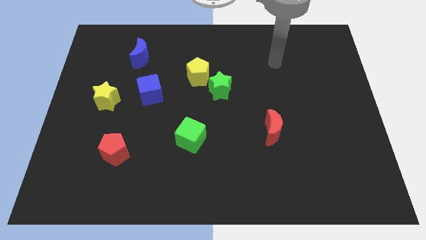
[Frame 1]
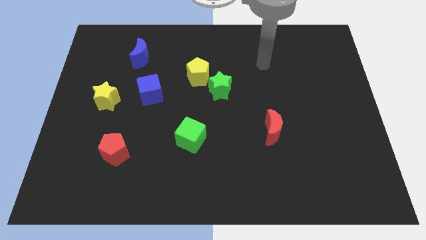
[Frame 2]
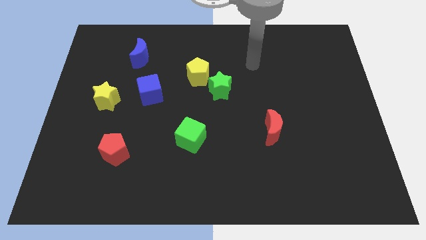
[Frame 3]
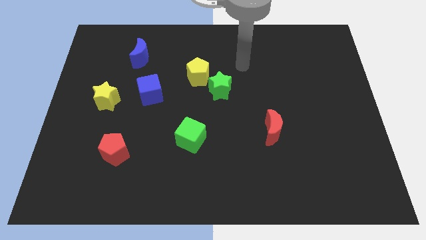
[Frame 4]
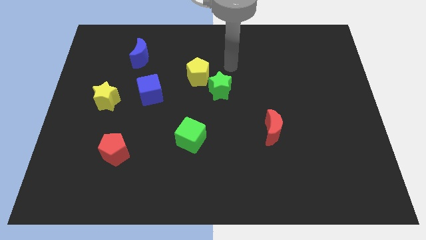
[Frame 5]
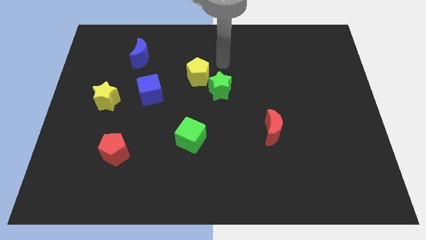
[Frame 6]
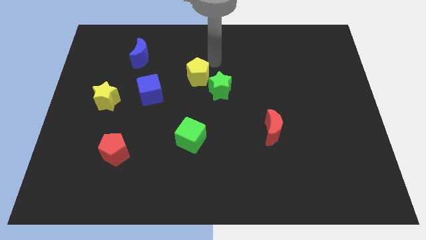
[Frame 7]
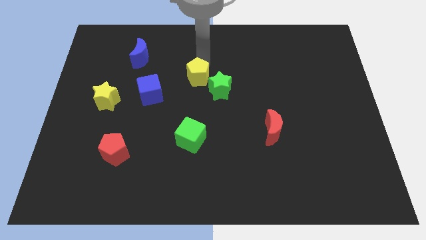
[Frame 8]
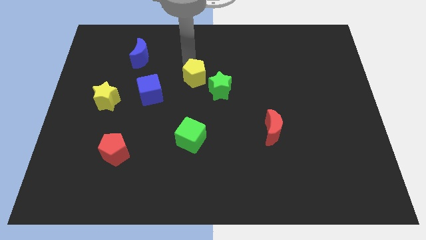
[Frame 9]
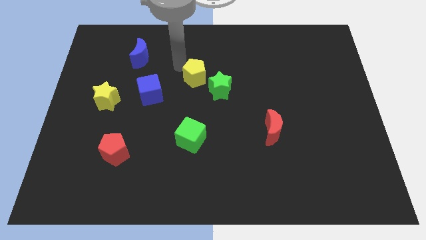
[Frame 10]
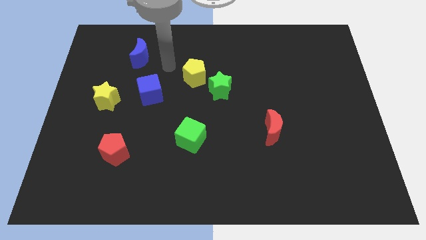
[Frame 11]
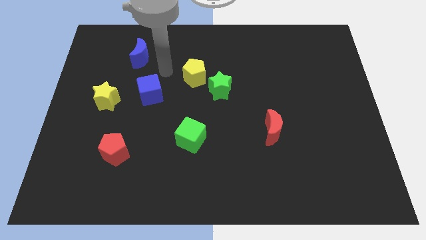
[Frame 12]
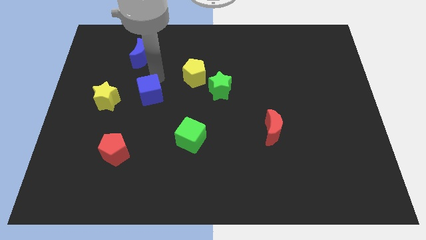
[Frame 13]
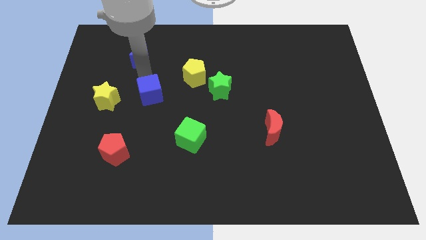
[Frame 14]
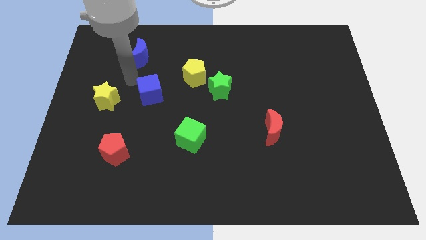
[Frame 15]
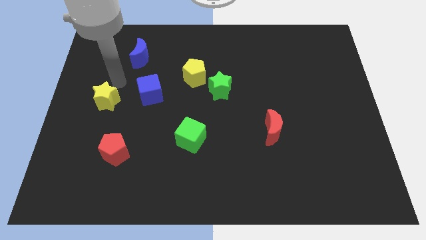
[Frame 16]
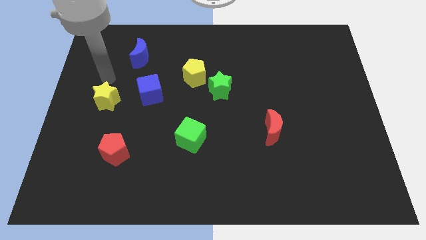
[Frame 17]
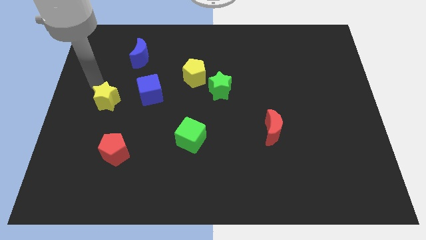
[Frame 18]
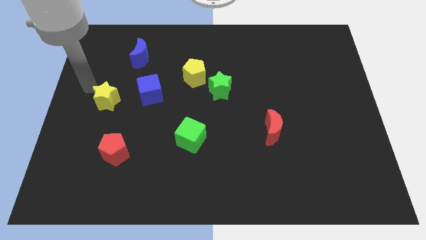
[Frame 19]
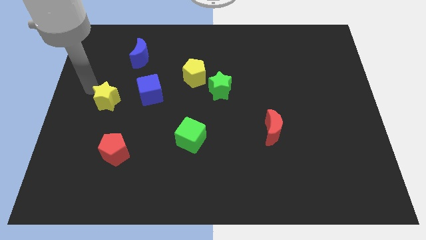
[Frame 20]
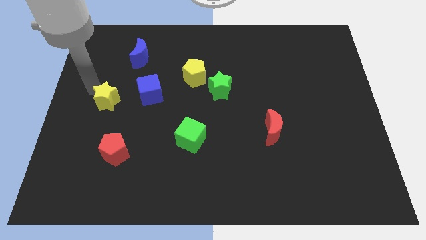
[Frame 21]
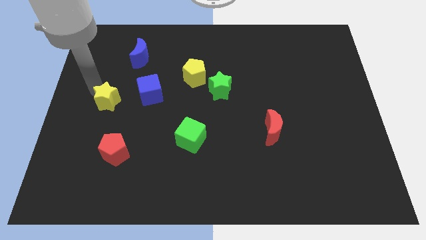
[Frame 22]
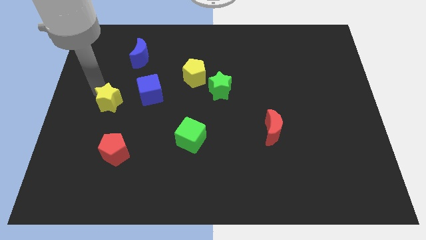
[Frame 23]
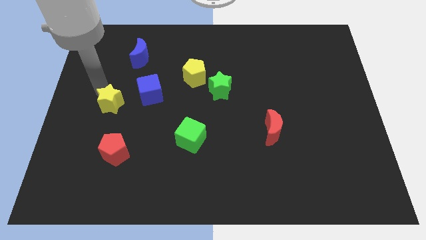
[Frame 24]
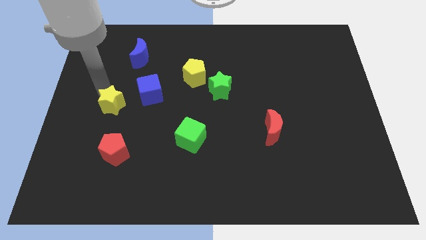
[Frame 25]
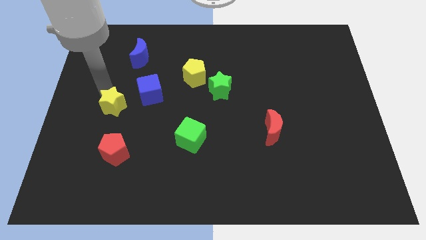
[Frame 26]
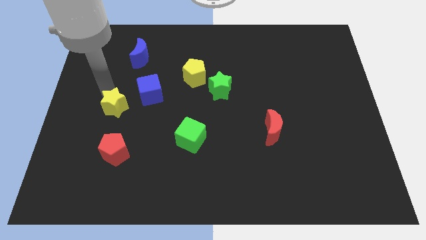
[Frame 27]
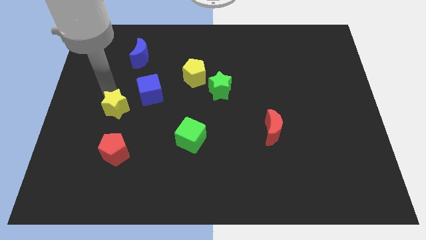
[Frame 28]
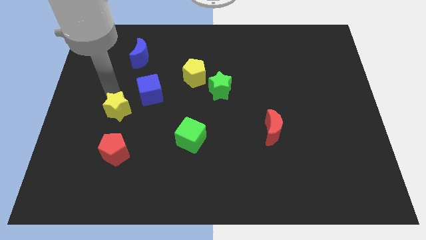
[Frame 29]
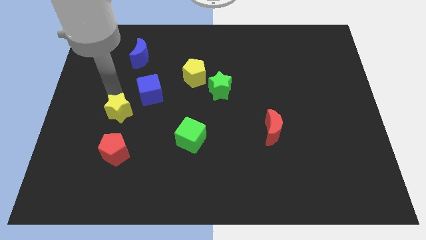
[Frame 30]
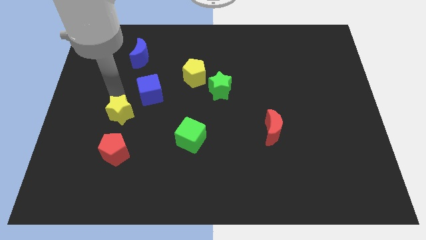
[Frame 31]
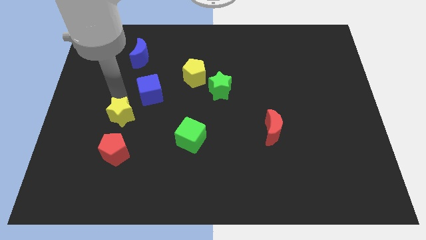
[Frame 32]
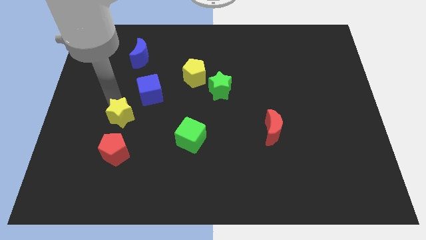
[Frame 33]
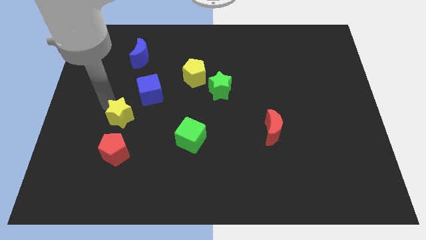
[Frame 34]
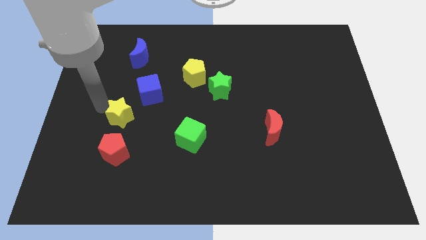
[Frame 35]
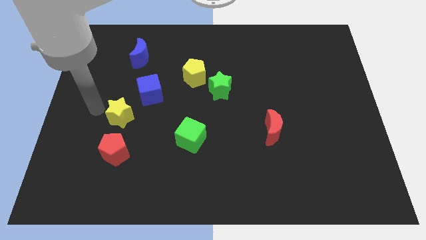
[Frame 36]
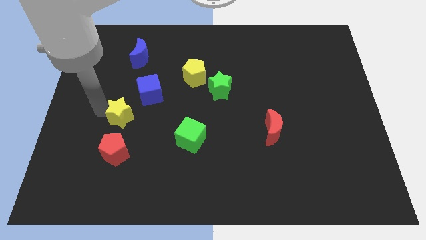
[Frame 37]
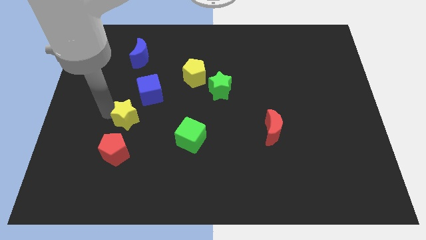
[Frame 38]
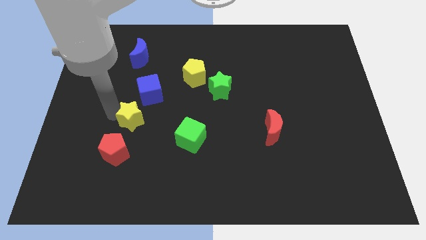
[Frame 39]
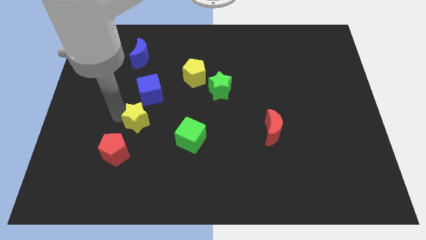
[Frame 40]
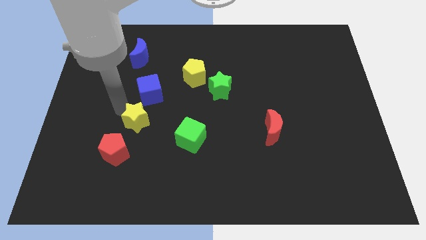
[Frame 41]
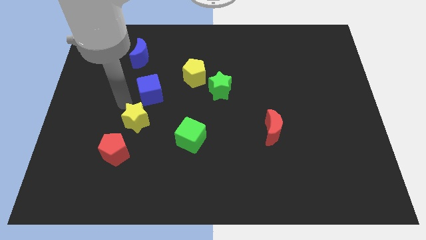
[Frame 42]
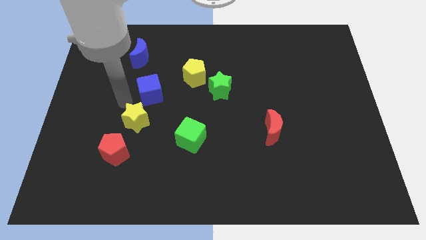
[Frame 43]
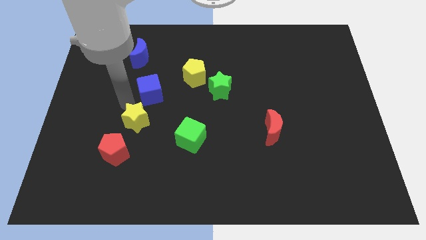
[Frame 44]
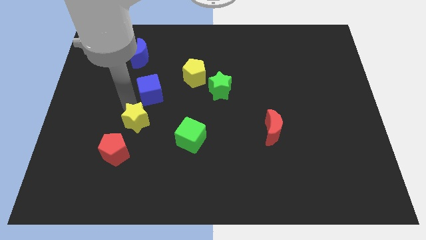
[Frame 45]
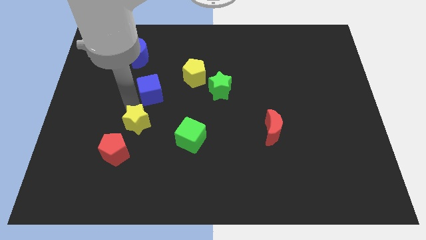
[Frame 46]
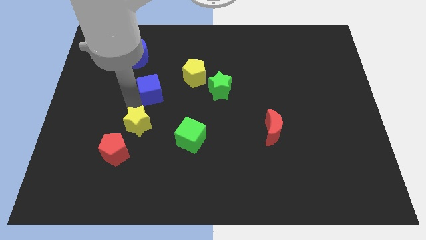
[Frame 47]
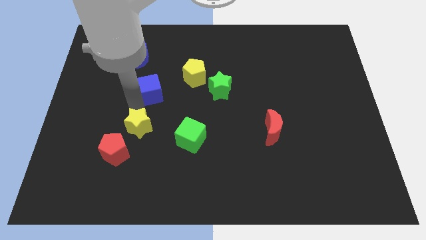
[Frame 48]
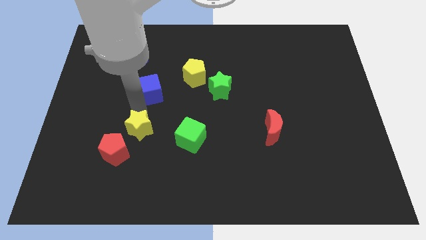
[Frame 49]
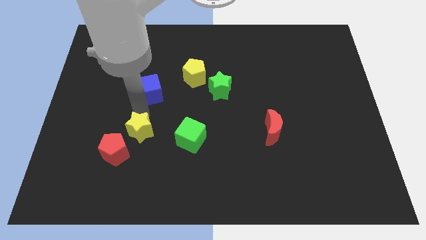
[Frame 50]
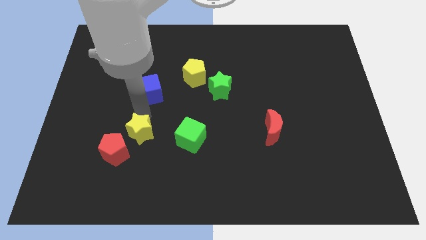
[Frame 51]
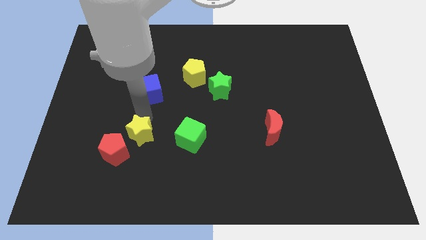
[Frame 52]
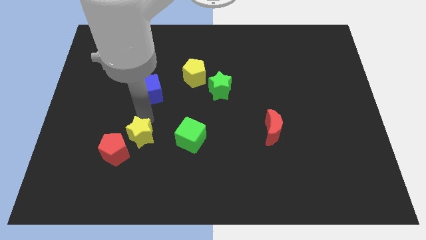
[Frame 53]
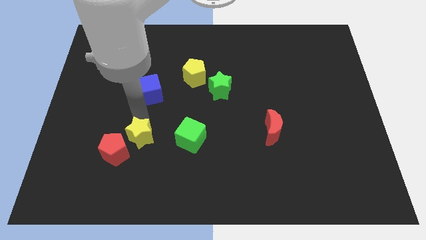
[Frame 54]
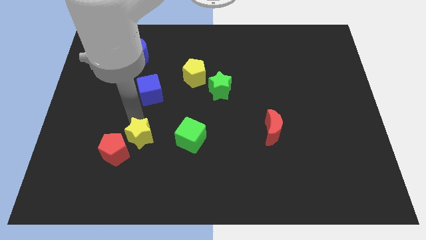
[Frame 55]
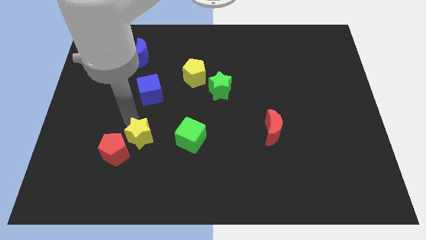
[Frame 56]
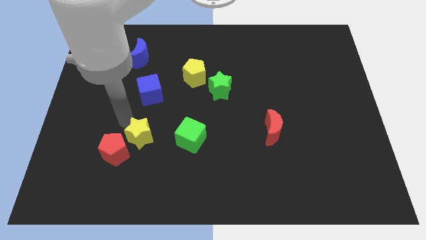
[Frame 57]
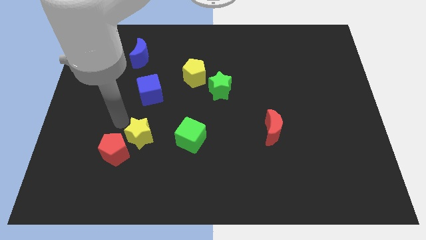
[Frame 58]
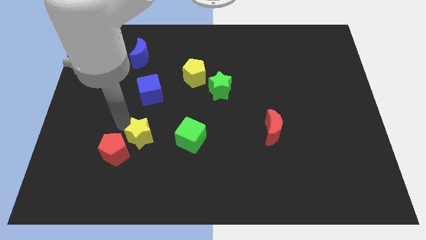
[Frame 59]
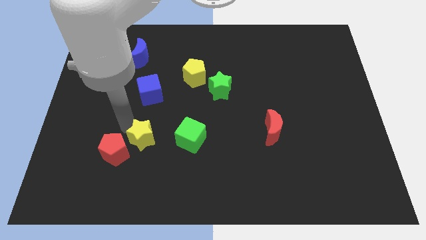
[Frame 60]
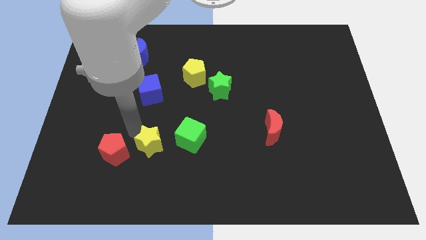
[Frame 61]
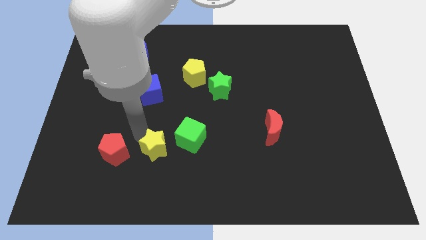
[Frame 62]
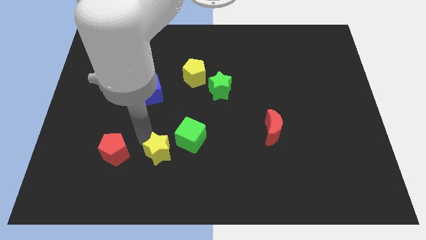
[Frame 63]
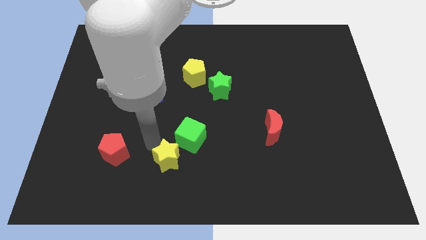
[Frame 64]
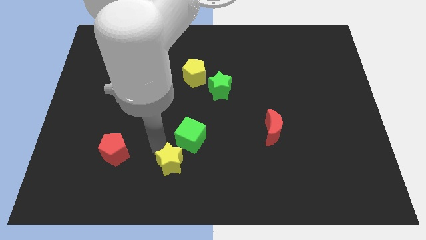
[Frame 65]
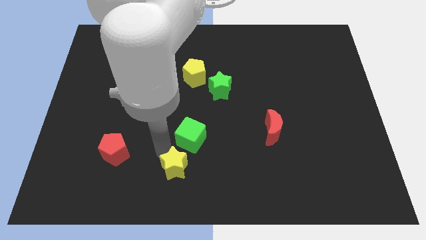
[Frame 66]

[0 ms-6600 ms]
push the yellow star to the bottom side
